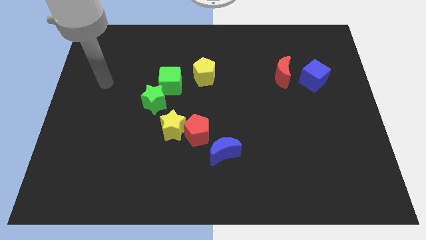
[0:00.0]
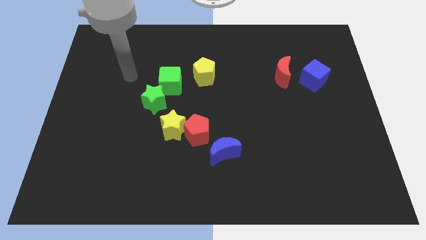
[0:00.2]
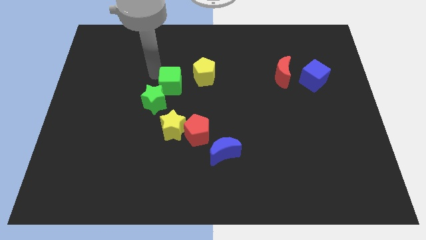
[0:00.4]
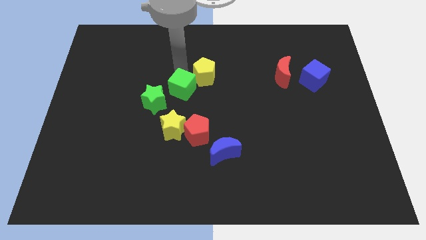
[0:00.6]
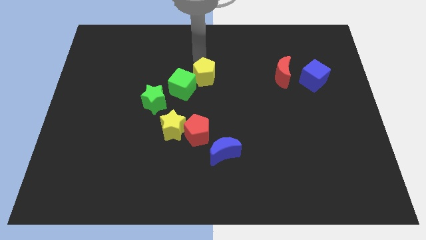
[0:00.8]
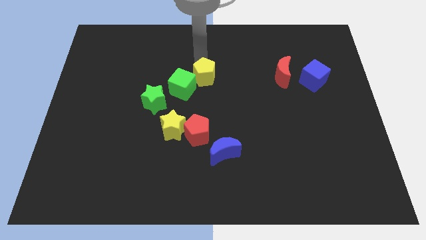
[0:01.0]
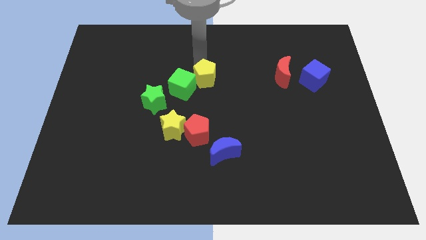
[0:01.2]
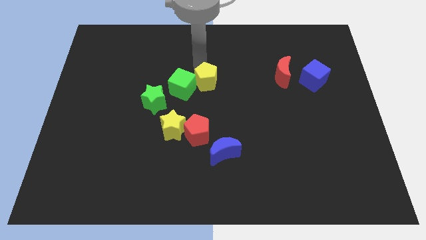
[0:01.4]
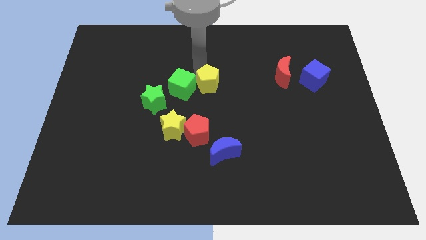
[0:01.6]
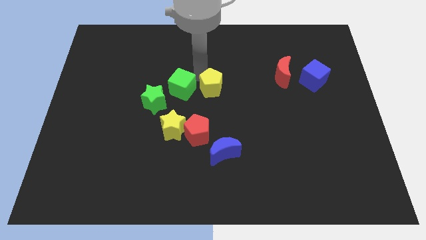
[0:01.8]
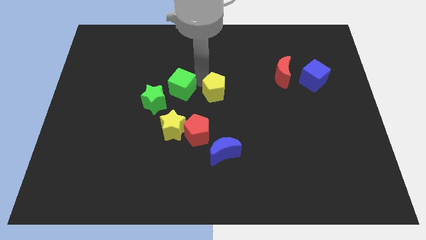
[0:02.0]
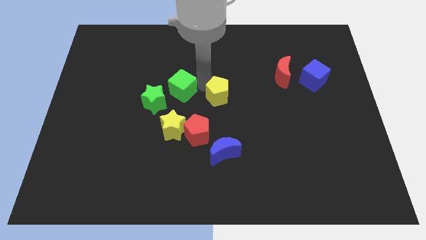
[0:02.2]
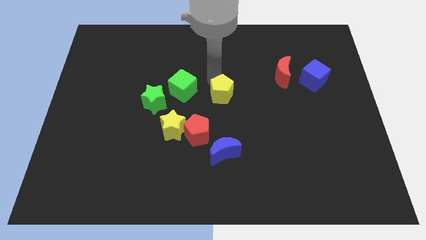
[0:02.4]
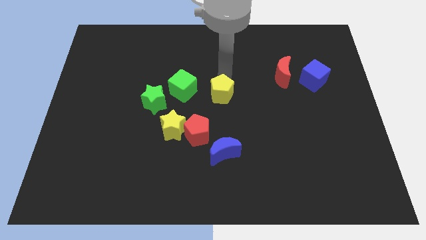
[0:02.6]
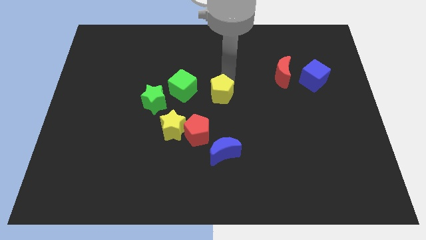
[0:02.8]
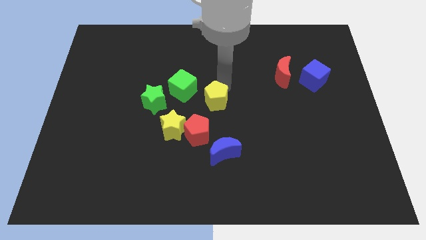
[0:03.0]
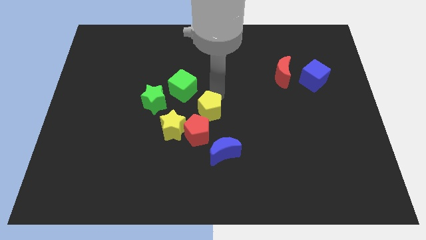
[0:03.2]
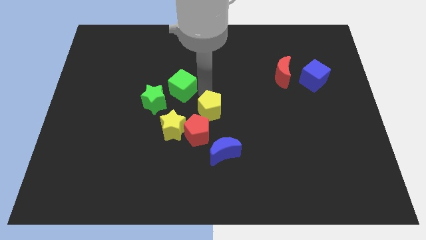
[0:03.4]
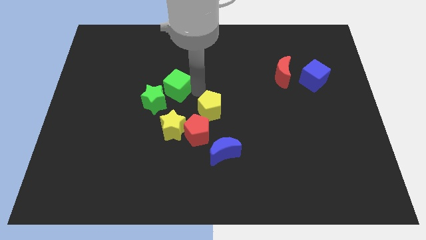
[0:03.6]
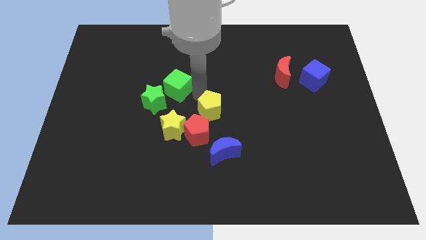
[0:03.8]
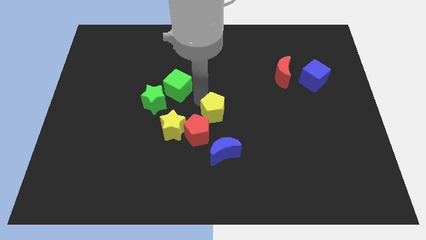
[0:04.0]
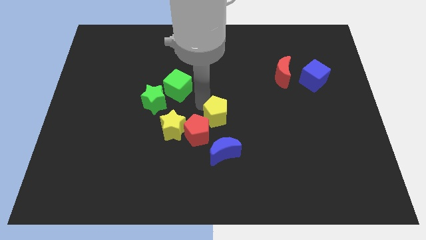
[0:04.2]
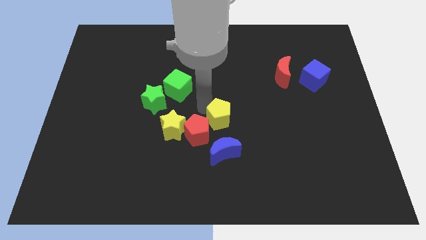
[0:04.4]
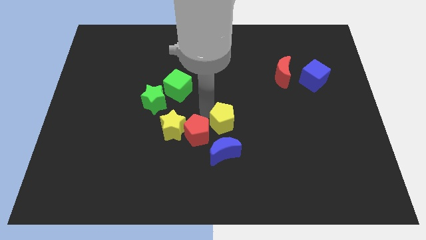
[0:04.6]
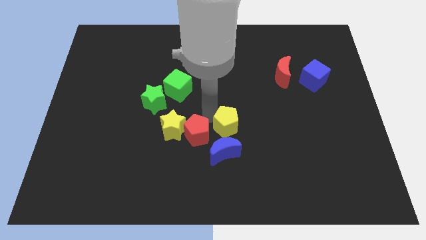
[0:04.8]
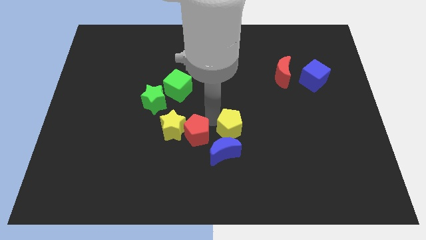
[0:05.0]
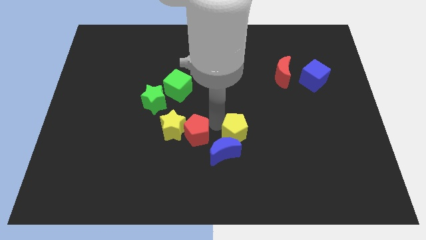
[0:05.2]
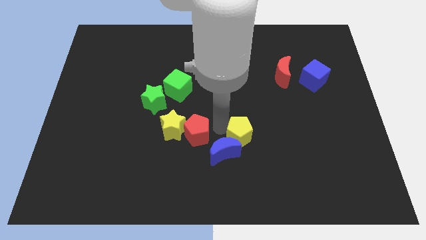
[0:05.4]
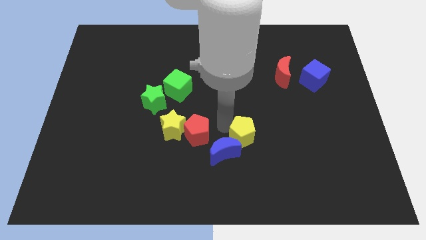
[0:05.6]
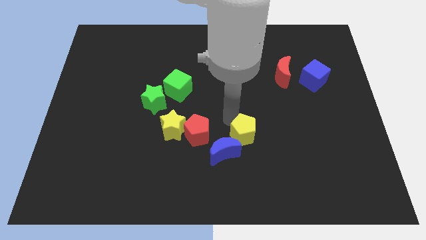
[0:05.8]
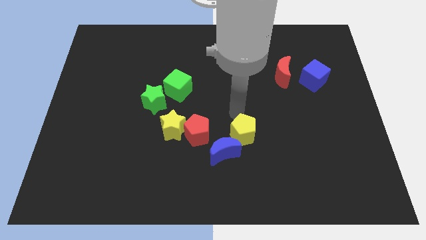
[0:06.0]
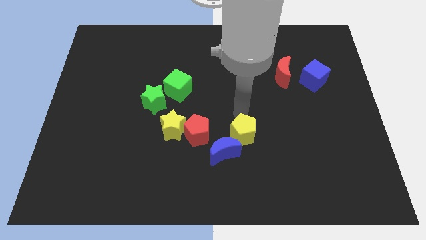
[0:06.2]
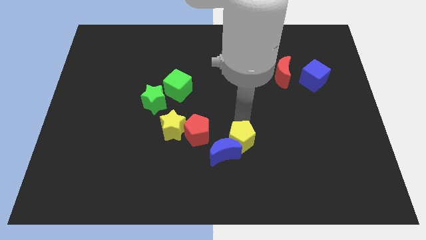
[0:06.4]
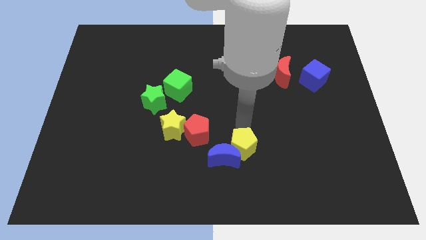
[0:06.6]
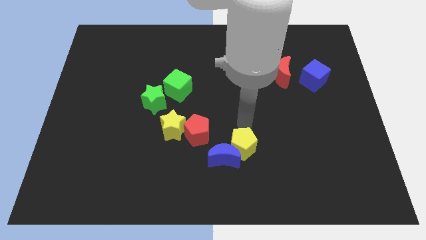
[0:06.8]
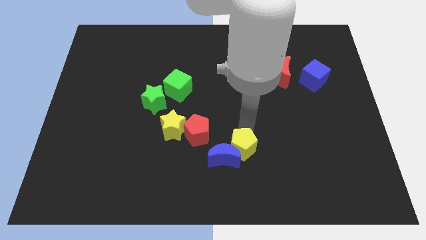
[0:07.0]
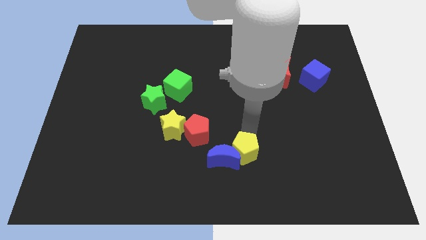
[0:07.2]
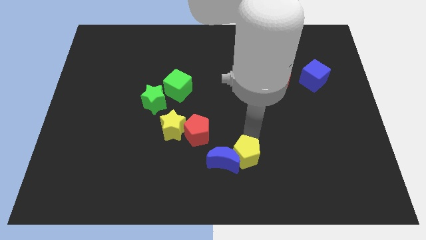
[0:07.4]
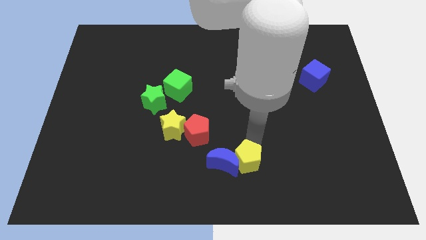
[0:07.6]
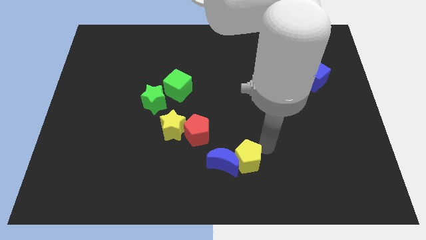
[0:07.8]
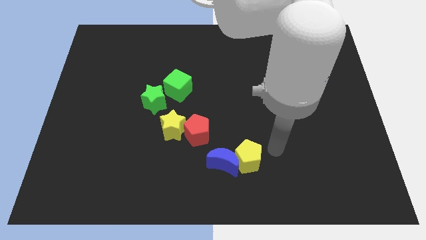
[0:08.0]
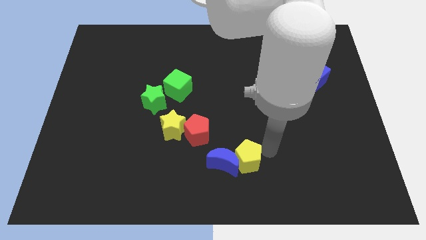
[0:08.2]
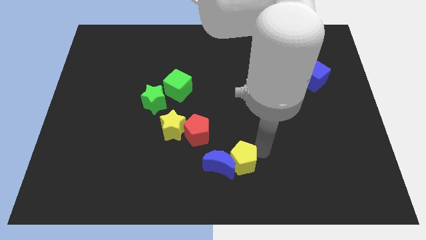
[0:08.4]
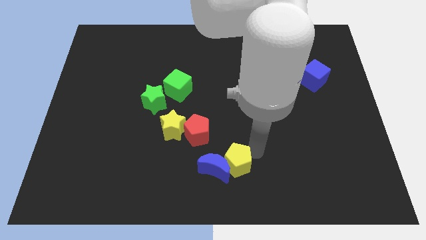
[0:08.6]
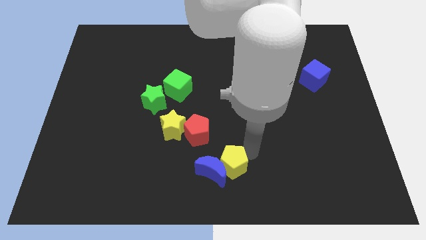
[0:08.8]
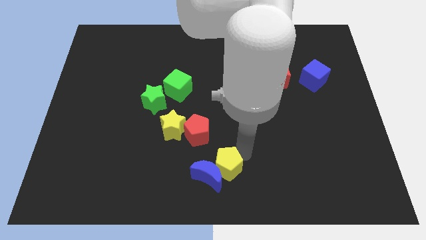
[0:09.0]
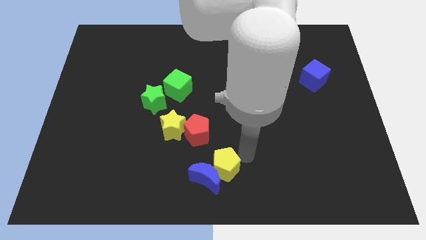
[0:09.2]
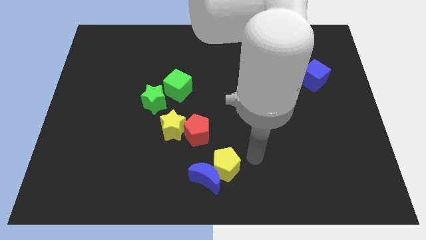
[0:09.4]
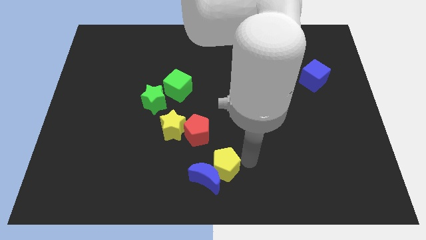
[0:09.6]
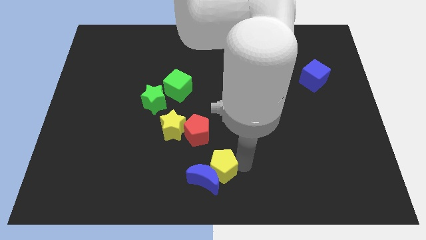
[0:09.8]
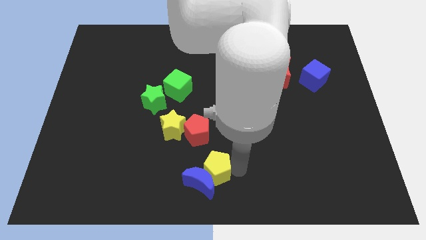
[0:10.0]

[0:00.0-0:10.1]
push the yellow pentagon below the red pentagon

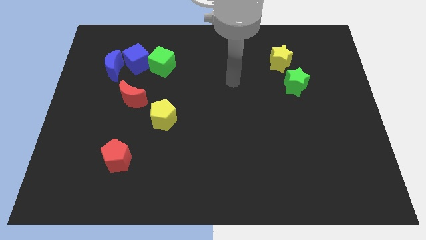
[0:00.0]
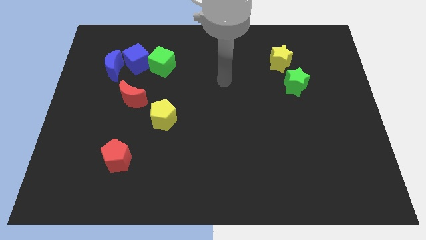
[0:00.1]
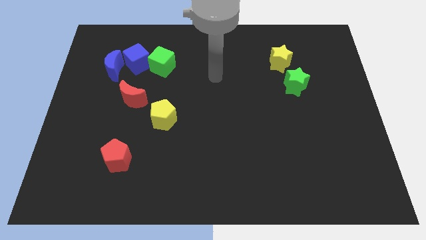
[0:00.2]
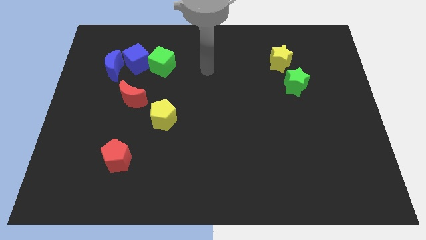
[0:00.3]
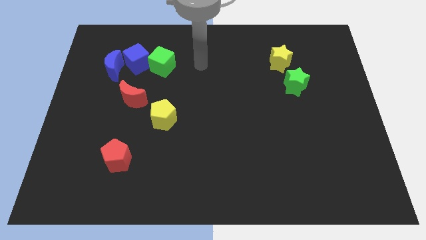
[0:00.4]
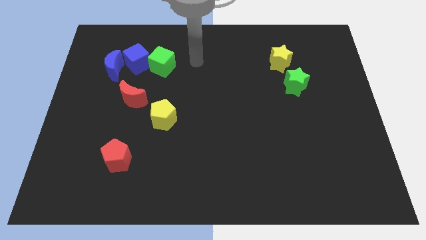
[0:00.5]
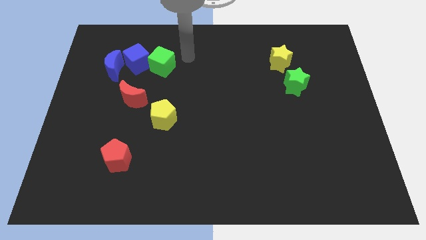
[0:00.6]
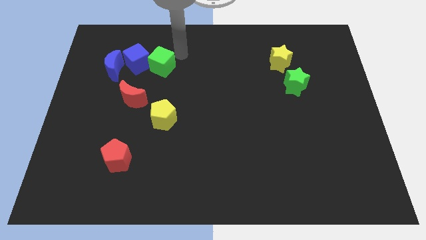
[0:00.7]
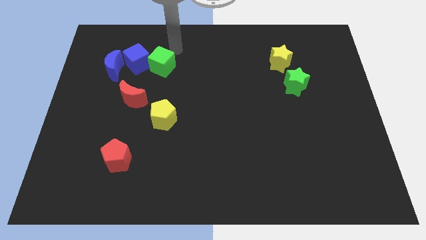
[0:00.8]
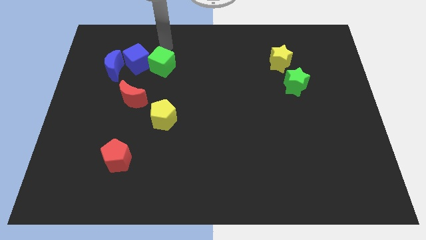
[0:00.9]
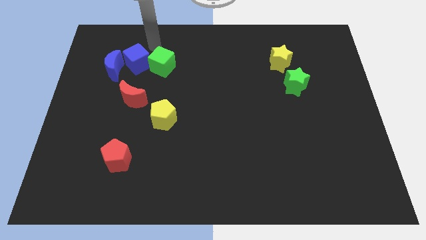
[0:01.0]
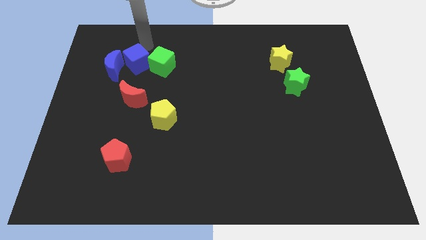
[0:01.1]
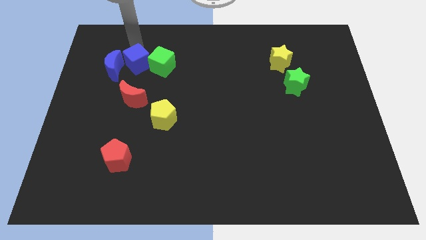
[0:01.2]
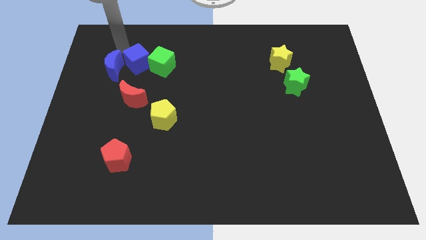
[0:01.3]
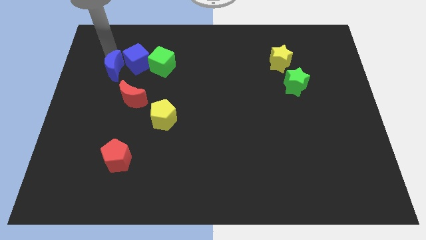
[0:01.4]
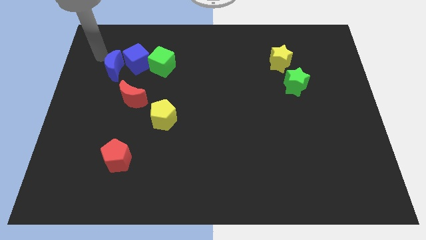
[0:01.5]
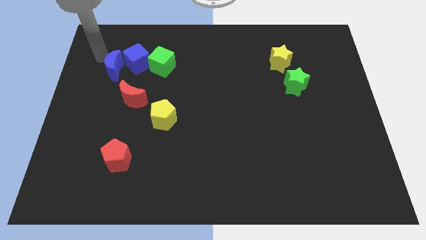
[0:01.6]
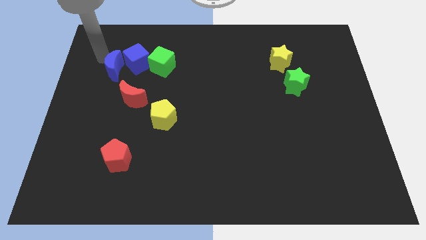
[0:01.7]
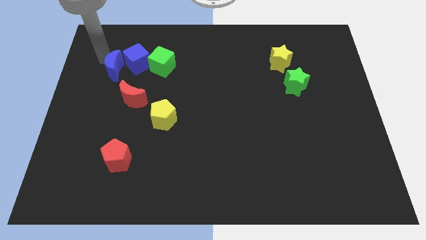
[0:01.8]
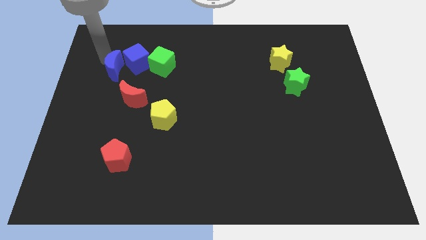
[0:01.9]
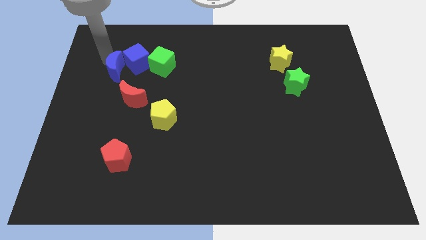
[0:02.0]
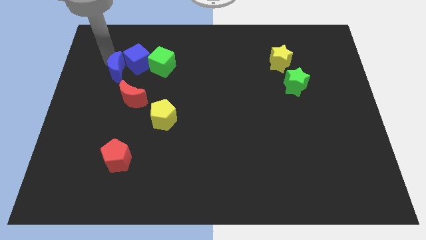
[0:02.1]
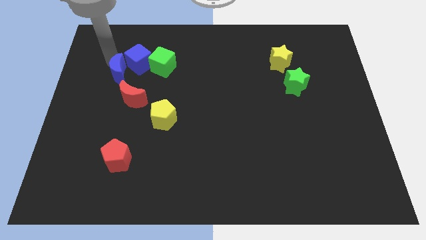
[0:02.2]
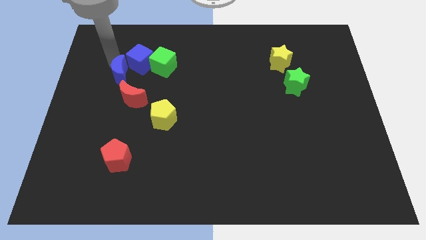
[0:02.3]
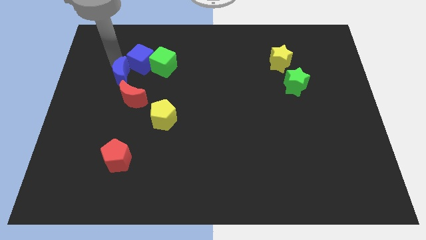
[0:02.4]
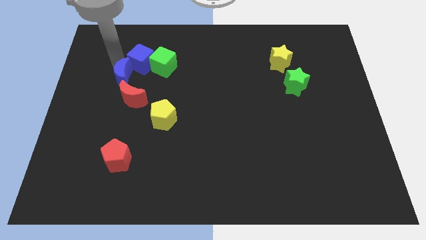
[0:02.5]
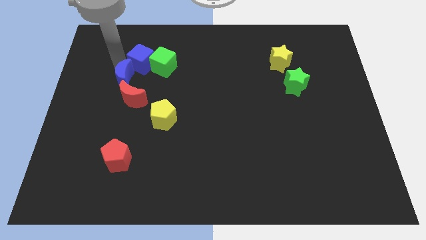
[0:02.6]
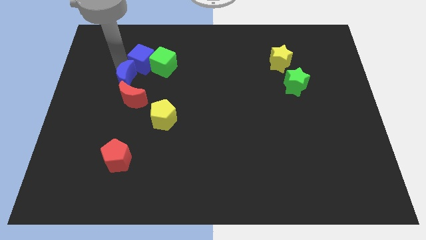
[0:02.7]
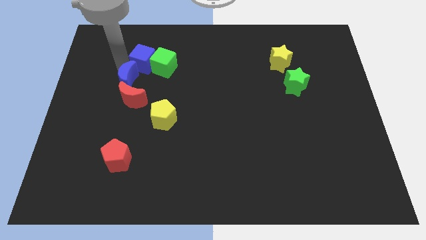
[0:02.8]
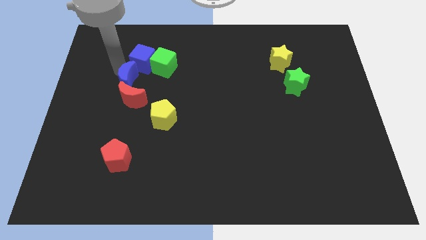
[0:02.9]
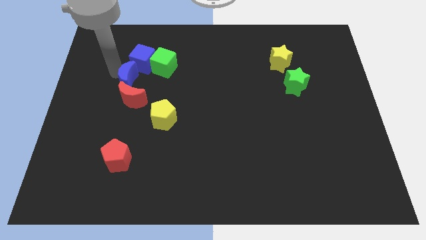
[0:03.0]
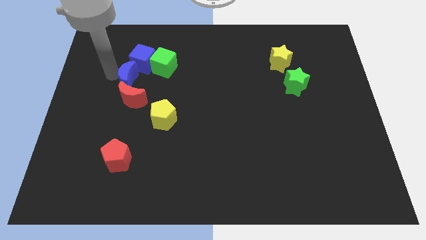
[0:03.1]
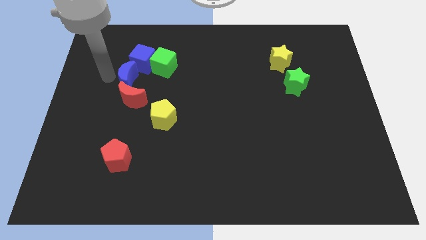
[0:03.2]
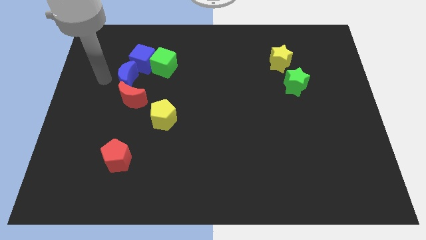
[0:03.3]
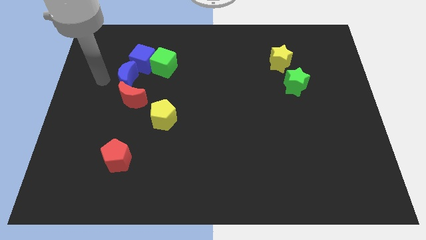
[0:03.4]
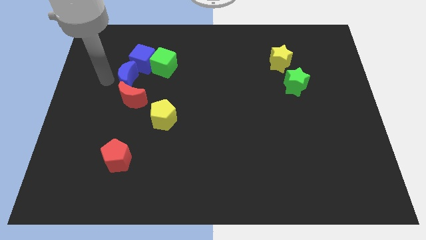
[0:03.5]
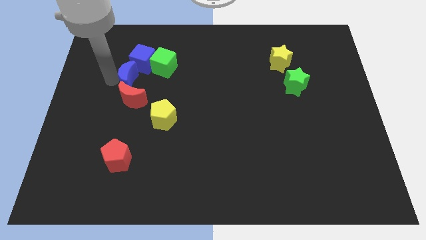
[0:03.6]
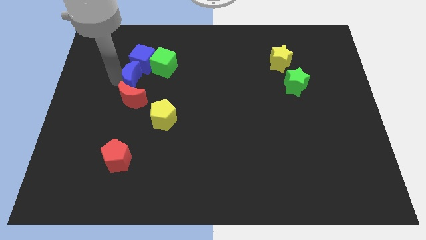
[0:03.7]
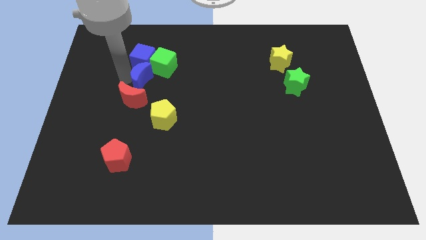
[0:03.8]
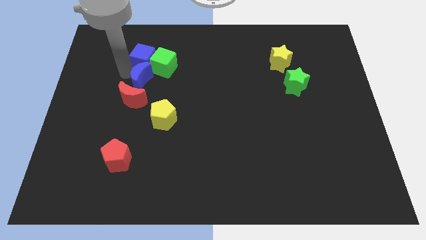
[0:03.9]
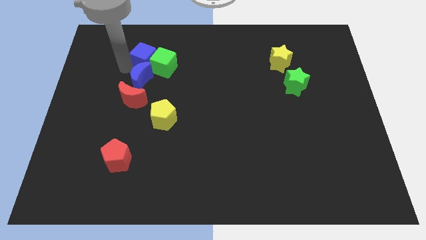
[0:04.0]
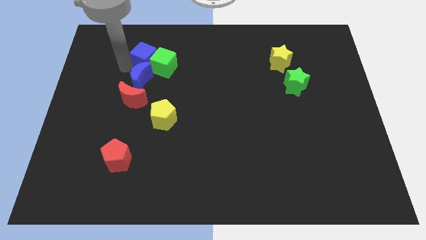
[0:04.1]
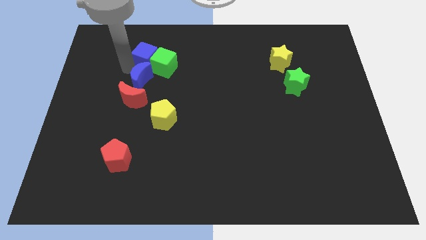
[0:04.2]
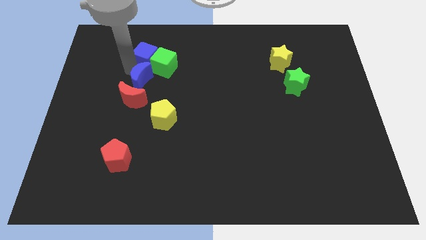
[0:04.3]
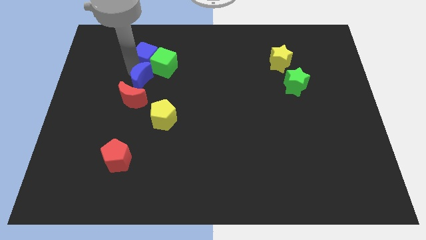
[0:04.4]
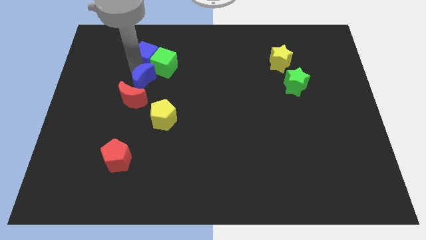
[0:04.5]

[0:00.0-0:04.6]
push the blue moon to the bottom side of the green cube
